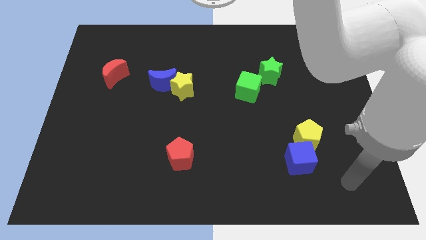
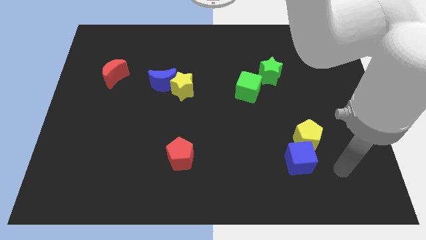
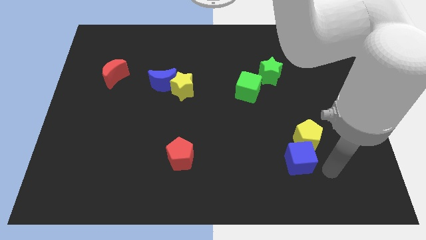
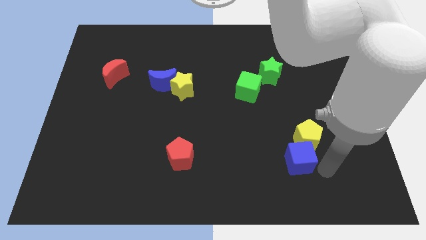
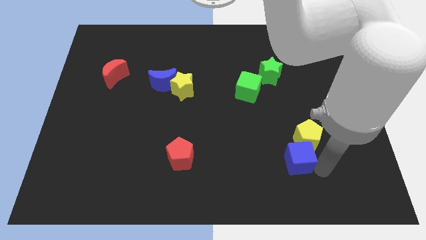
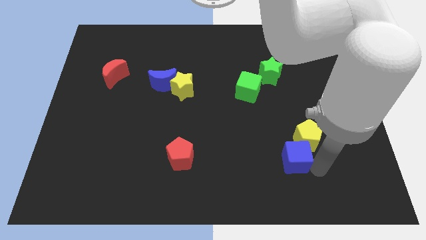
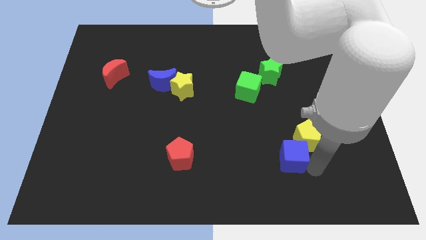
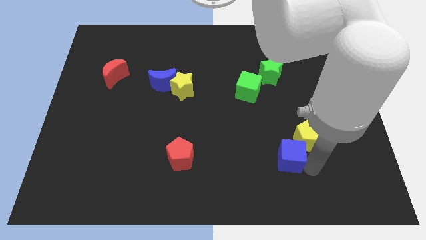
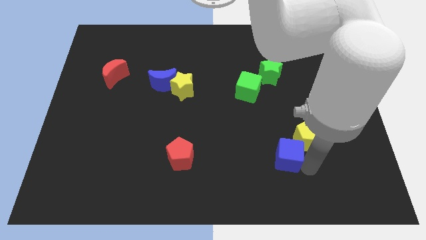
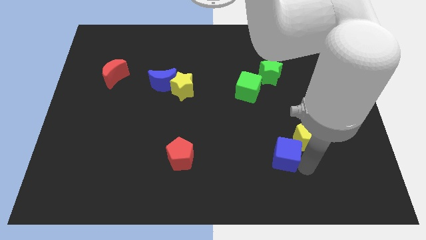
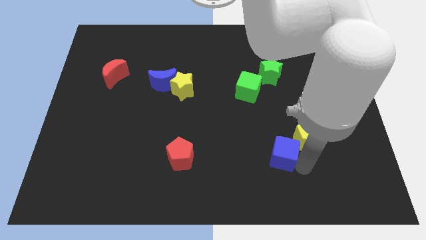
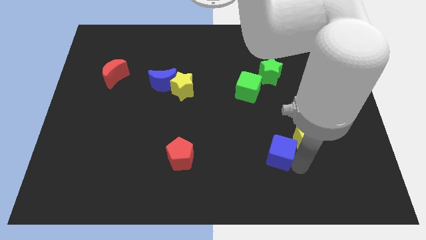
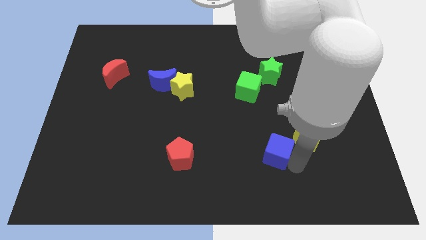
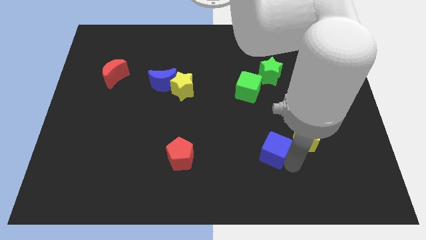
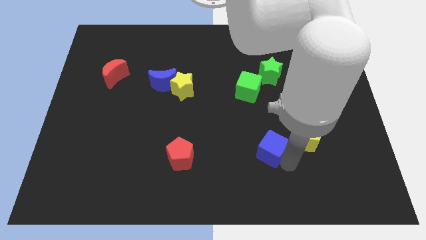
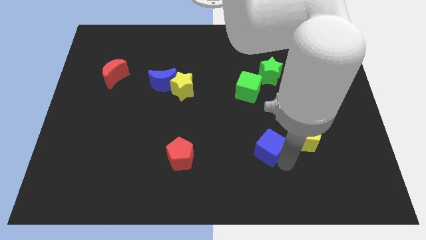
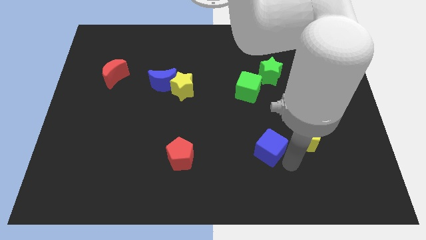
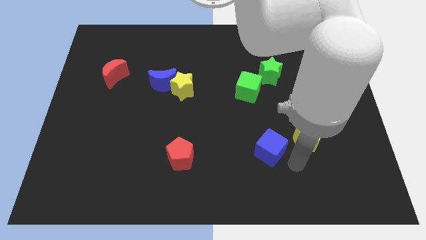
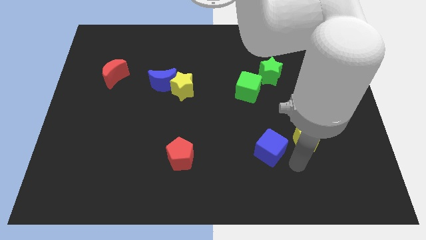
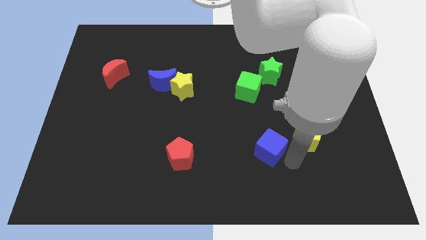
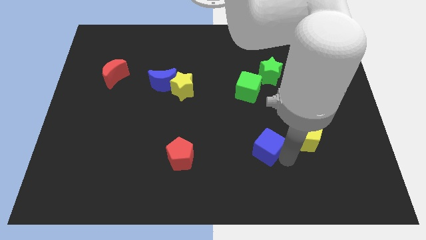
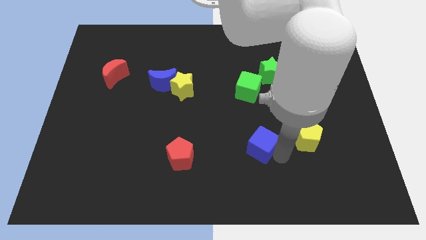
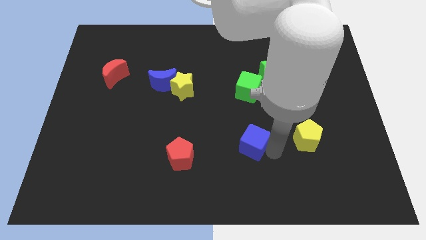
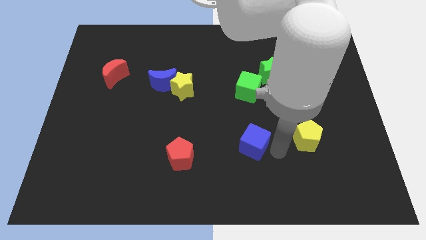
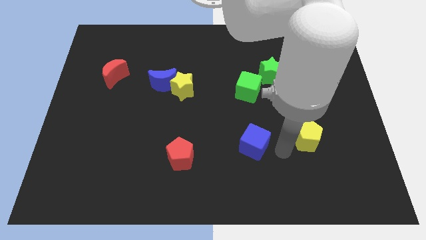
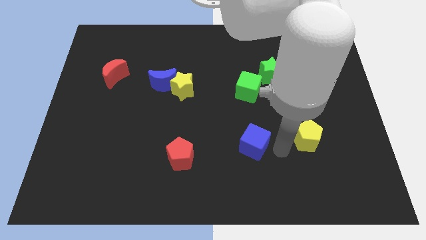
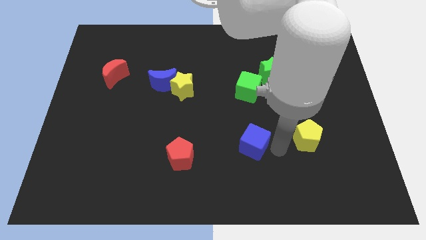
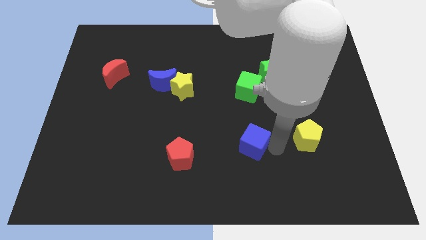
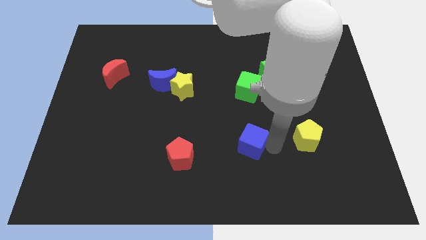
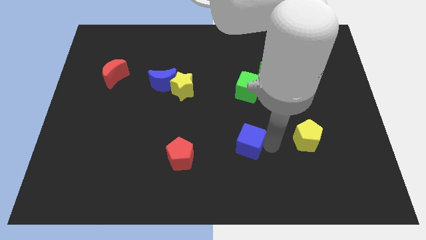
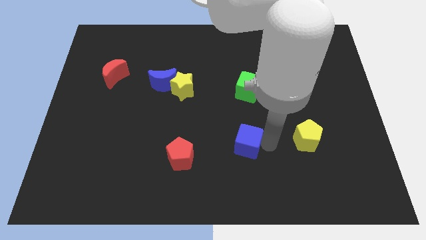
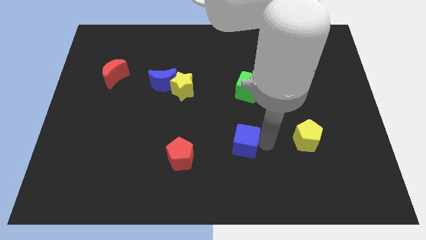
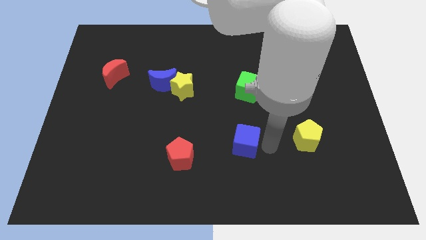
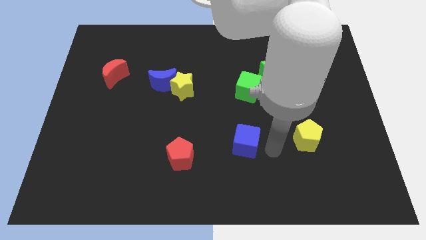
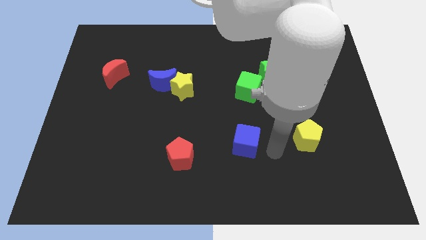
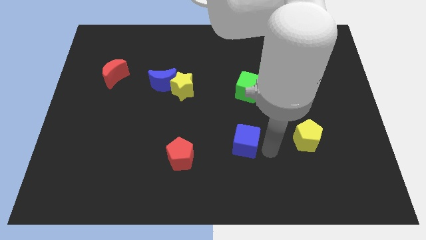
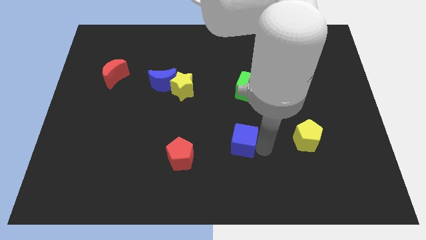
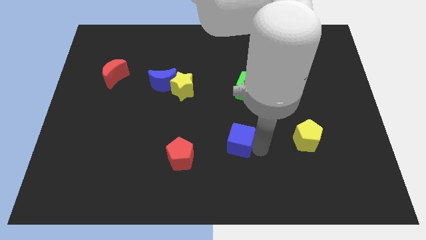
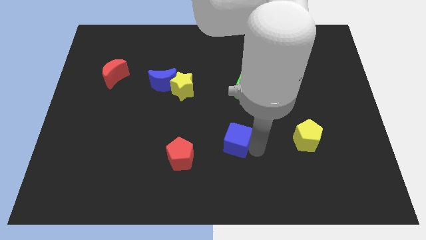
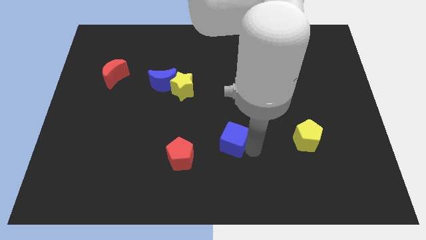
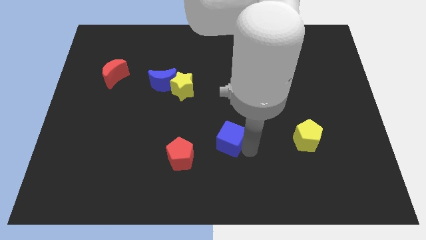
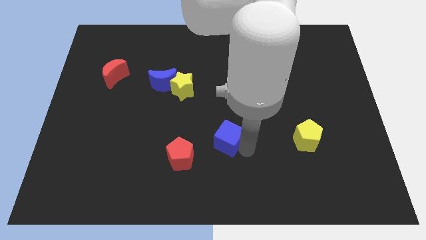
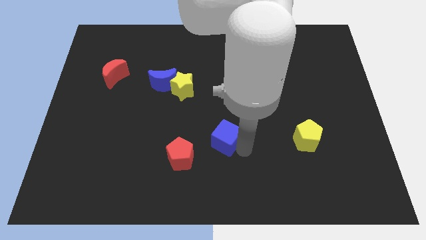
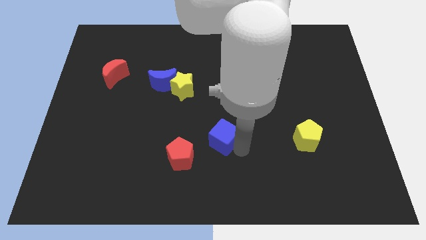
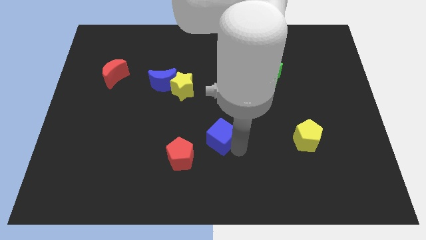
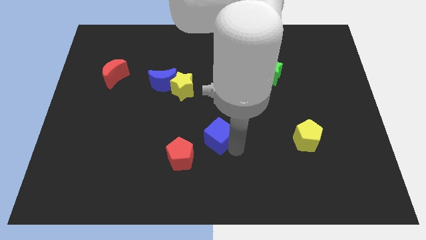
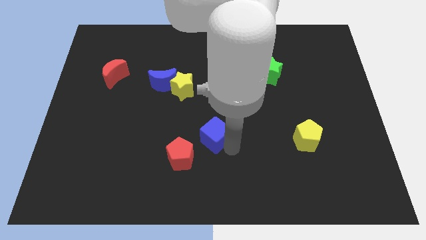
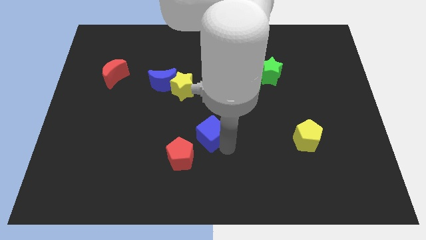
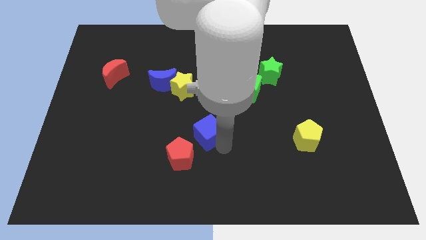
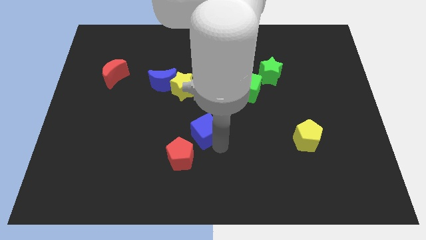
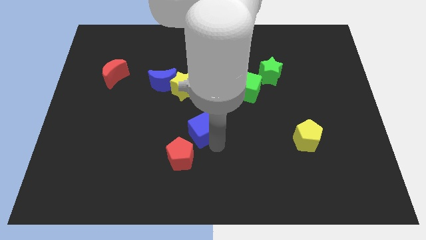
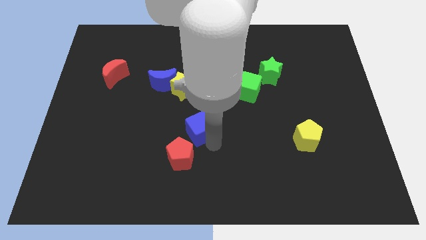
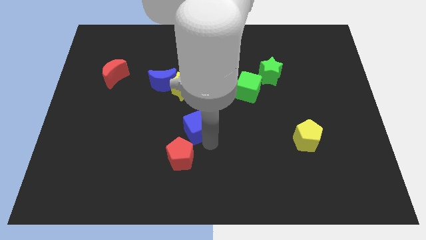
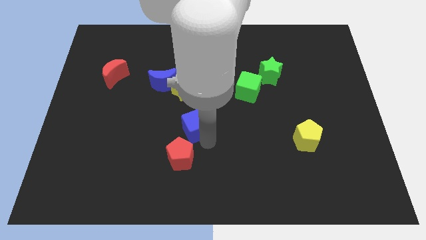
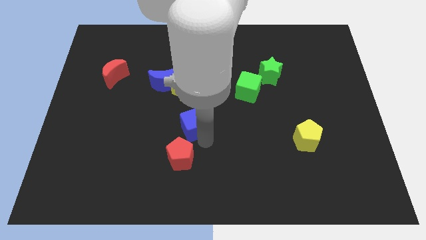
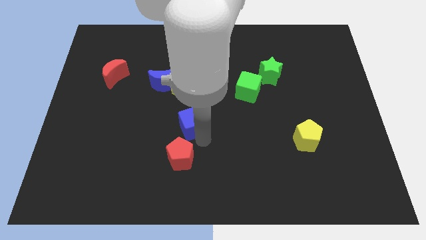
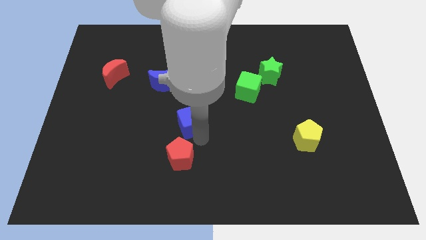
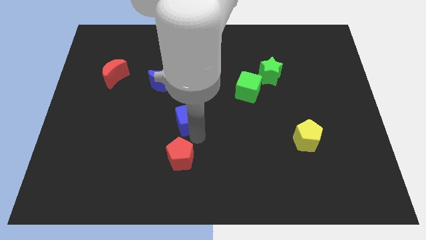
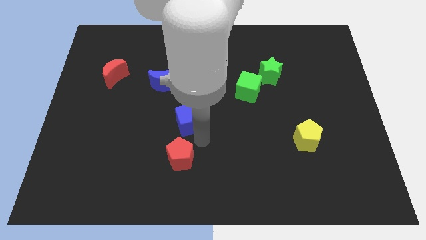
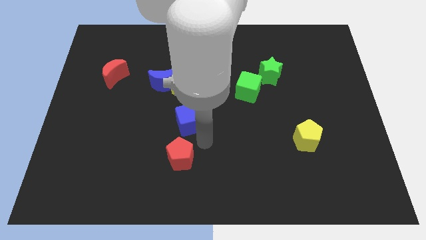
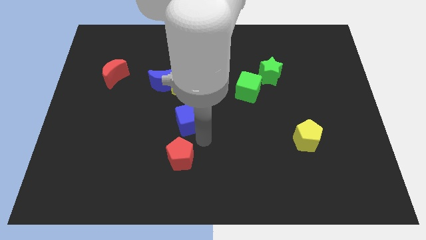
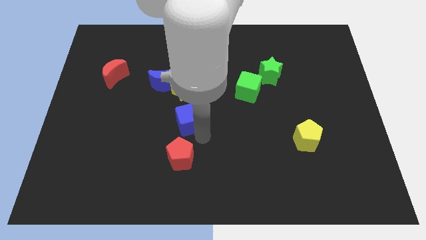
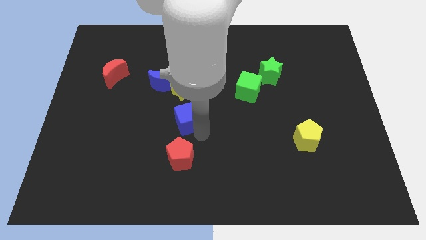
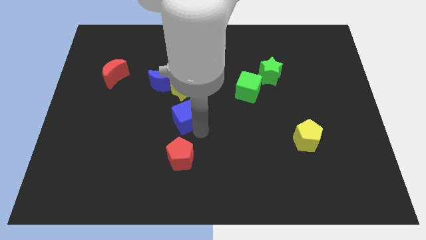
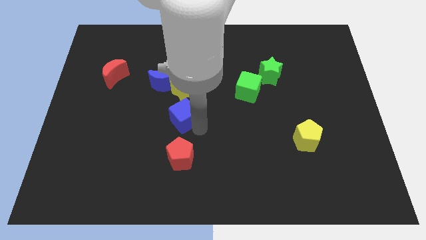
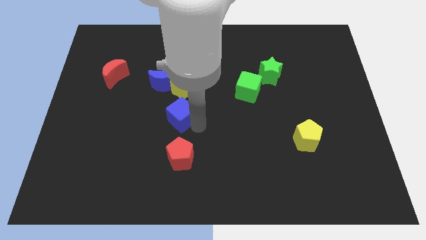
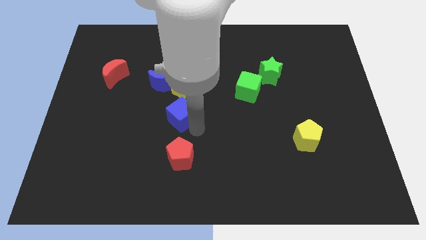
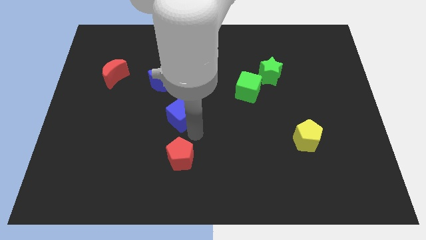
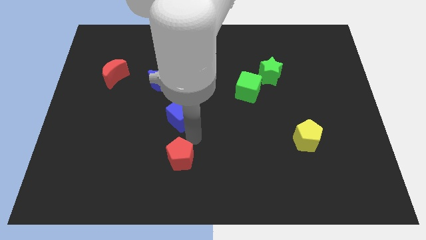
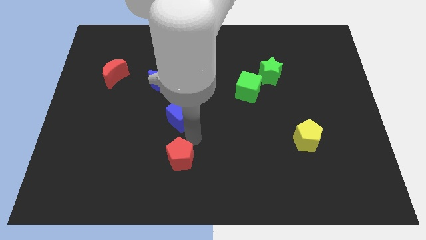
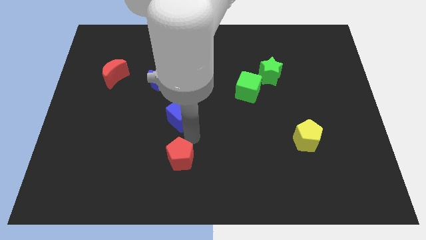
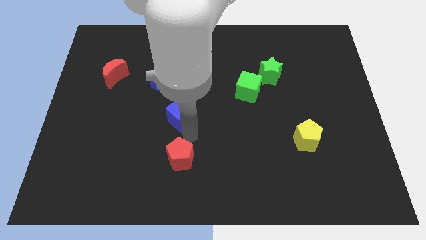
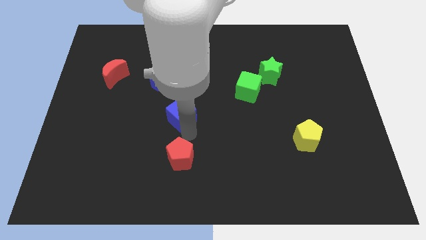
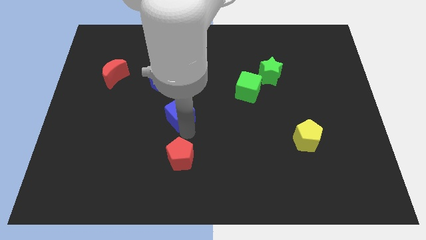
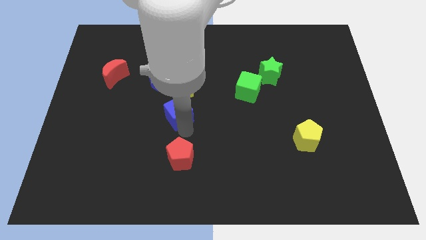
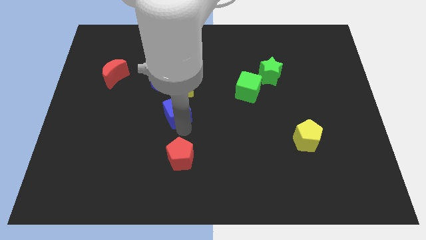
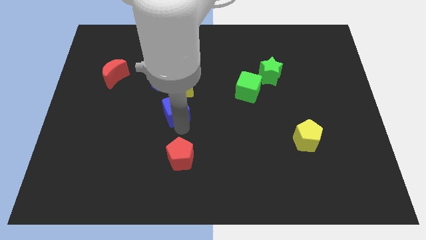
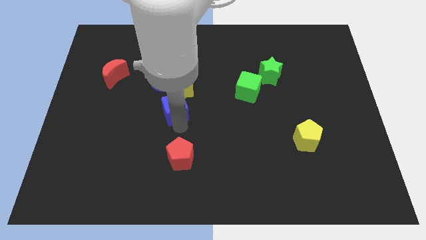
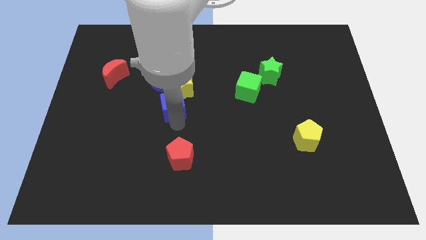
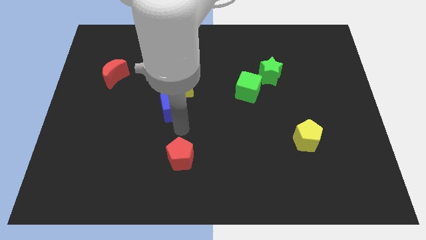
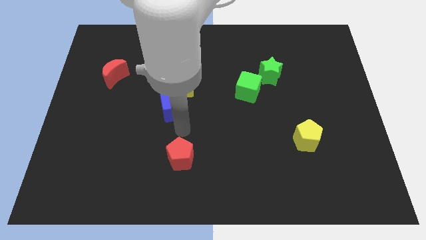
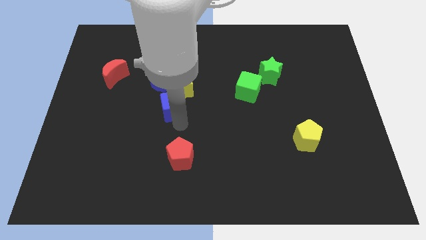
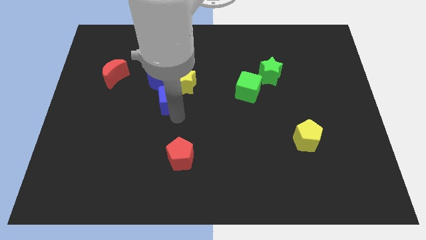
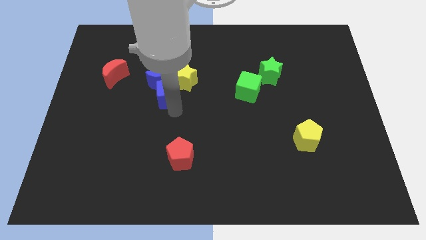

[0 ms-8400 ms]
put the blue cube to the blue moon
